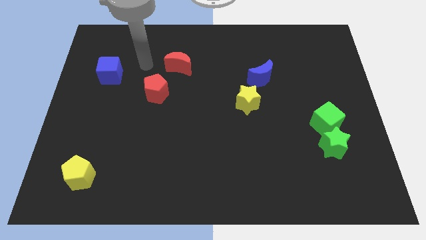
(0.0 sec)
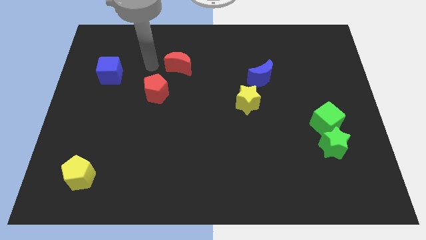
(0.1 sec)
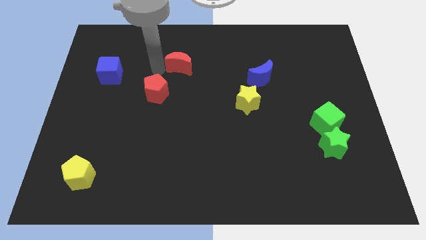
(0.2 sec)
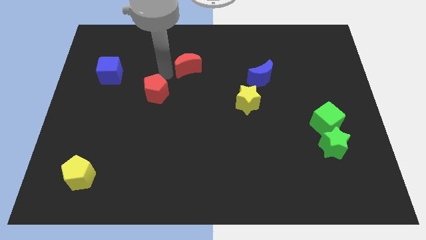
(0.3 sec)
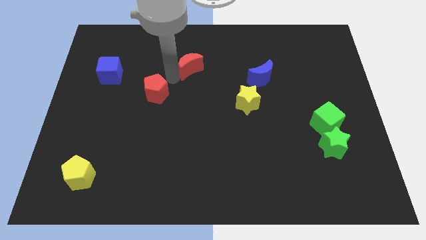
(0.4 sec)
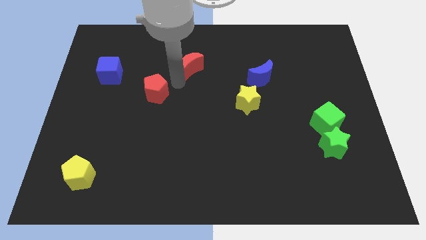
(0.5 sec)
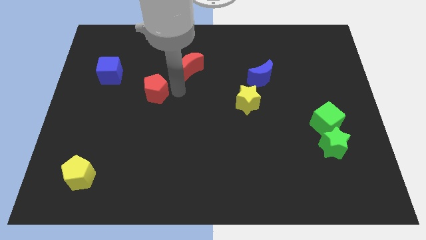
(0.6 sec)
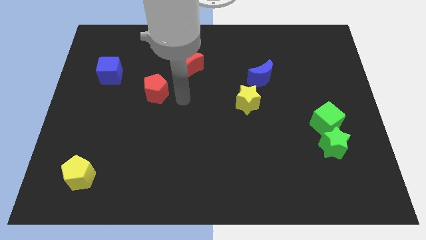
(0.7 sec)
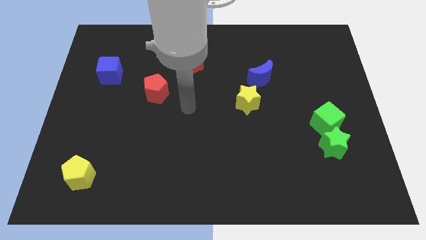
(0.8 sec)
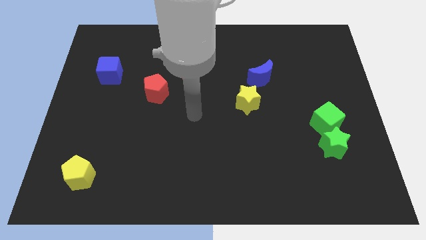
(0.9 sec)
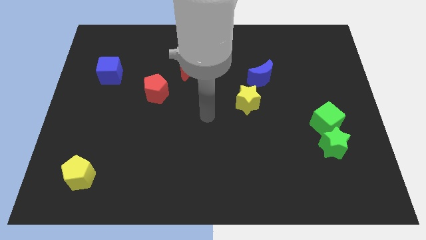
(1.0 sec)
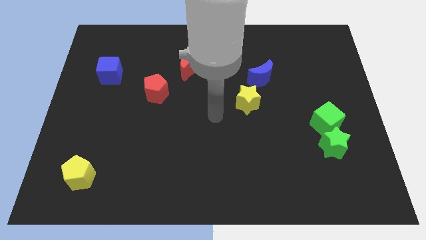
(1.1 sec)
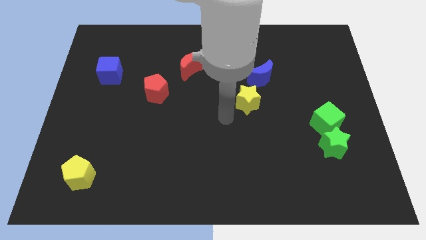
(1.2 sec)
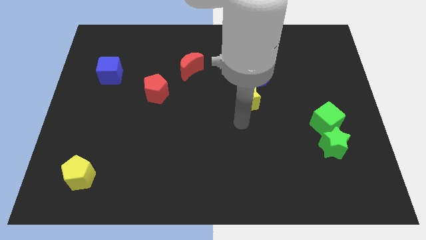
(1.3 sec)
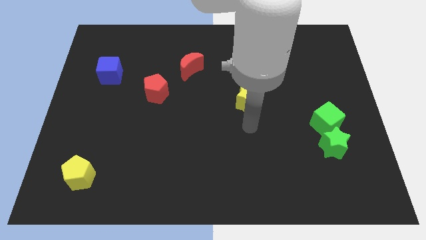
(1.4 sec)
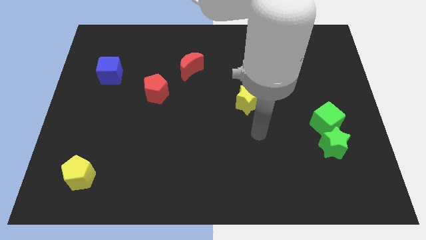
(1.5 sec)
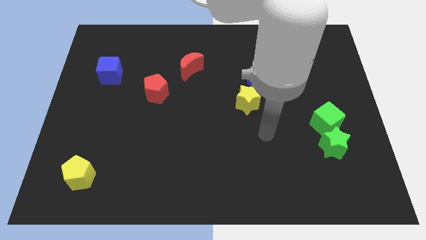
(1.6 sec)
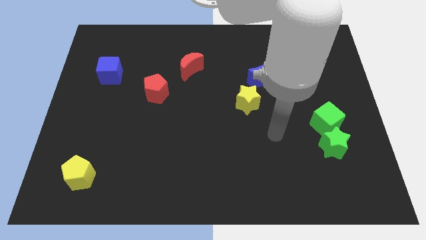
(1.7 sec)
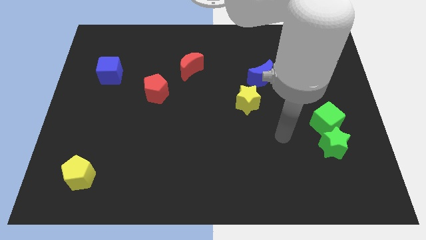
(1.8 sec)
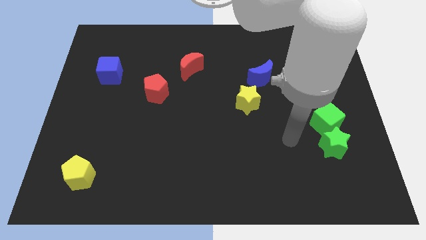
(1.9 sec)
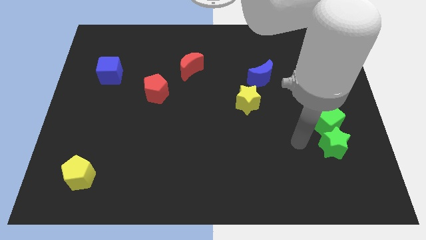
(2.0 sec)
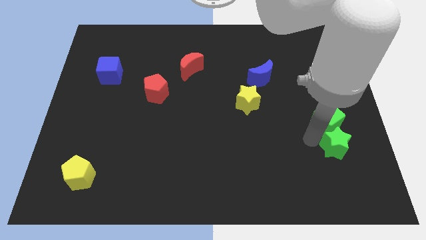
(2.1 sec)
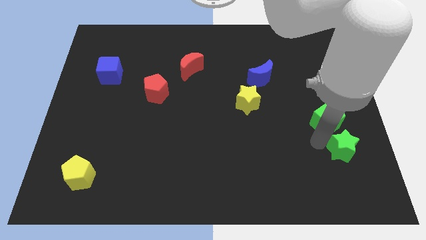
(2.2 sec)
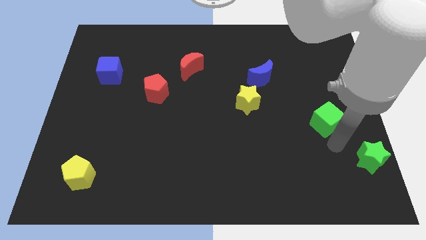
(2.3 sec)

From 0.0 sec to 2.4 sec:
move the green cube away from the green star

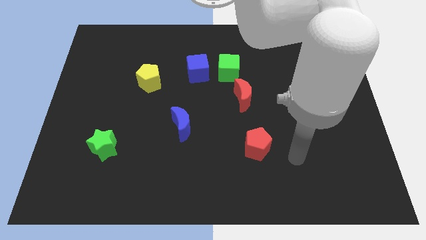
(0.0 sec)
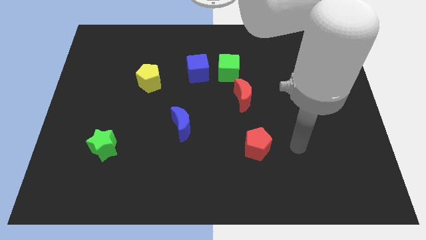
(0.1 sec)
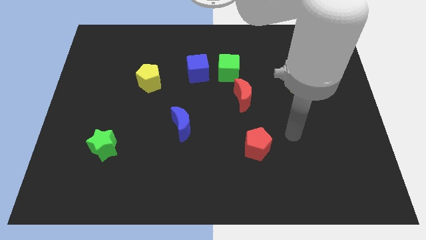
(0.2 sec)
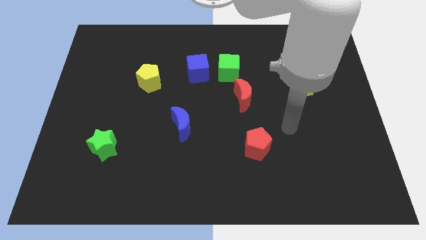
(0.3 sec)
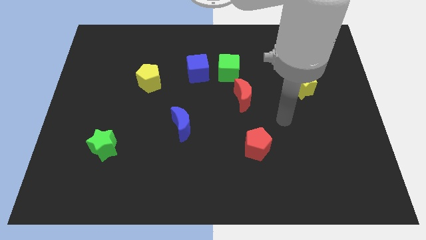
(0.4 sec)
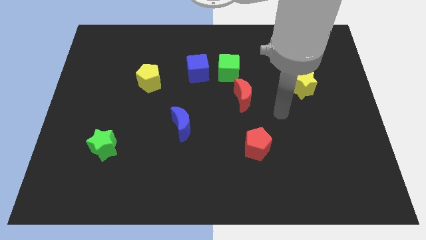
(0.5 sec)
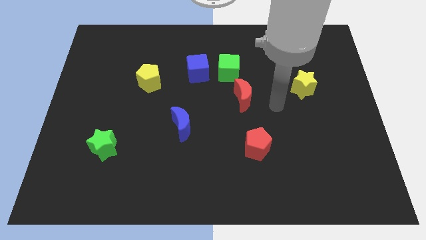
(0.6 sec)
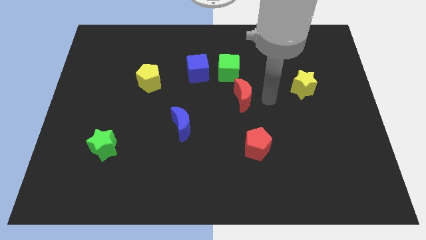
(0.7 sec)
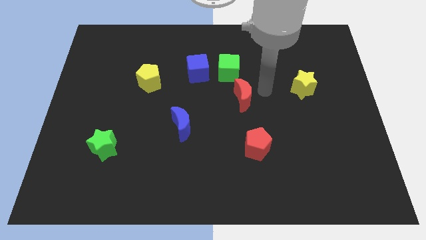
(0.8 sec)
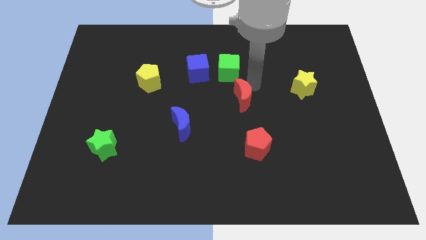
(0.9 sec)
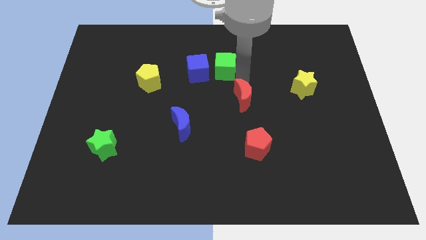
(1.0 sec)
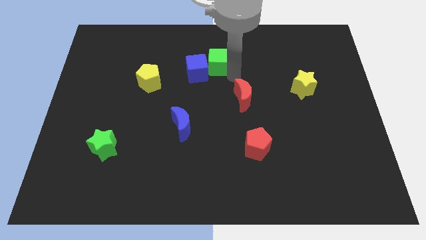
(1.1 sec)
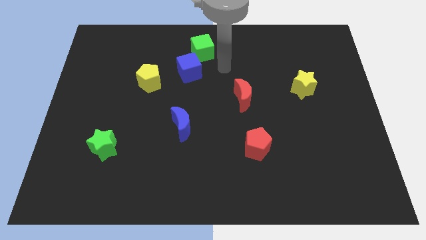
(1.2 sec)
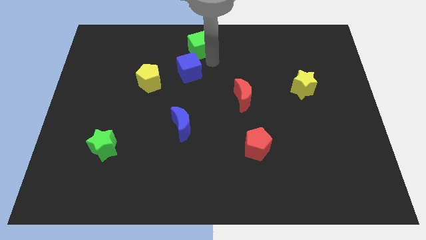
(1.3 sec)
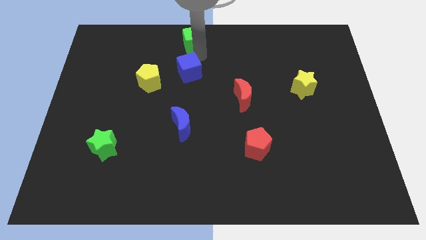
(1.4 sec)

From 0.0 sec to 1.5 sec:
pull the blue cube apart from the green cube

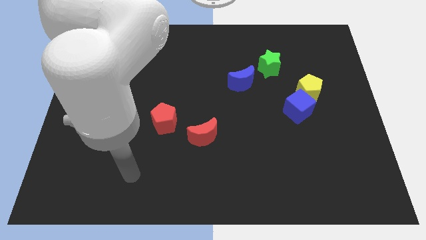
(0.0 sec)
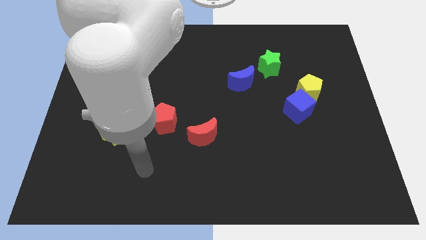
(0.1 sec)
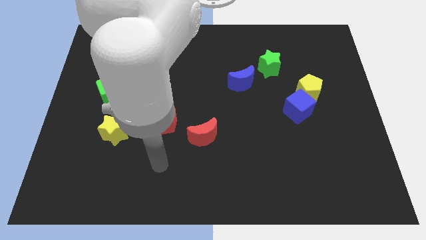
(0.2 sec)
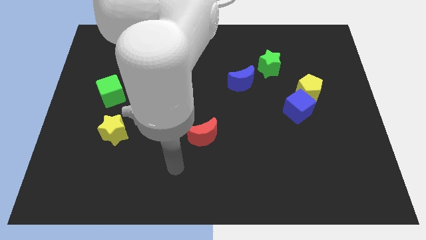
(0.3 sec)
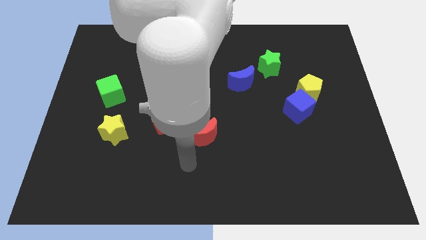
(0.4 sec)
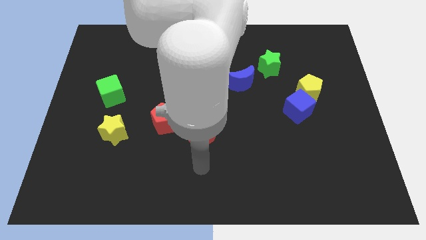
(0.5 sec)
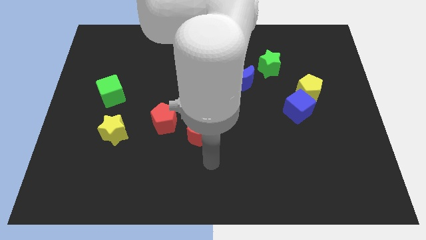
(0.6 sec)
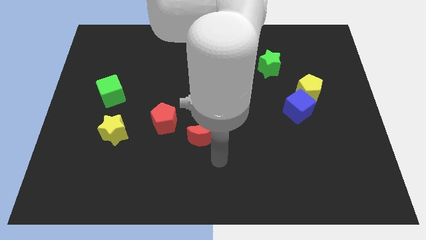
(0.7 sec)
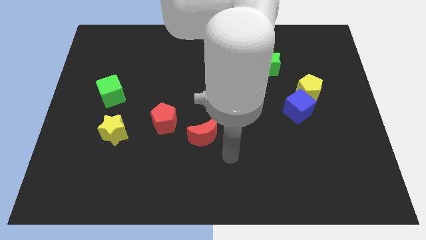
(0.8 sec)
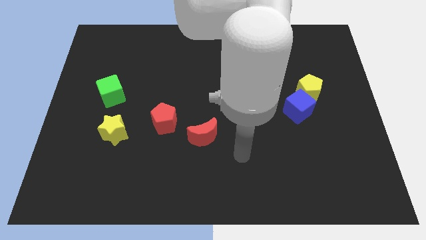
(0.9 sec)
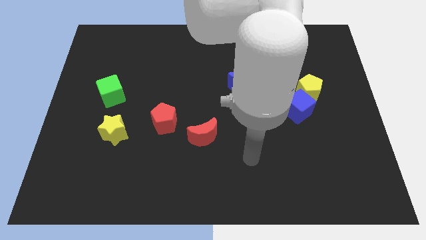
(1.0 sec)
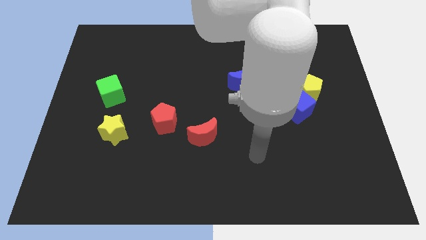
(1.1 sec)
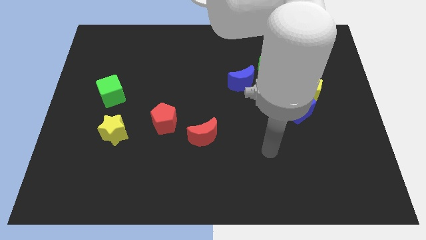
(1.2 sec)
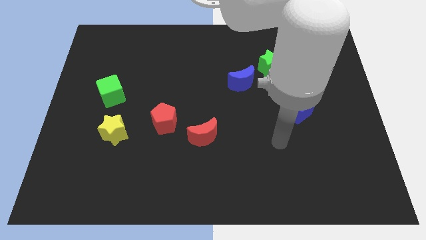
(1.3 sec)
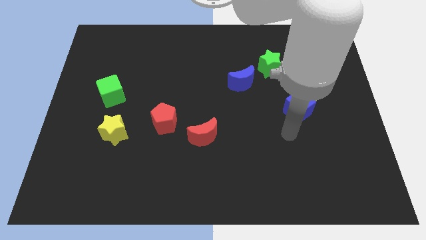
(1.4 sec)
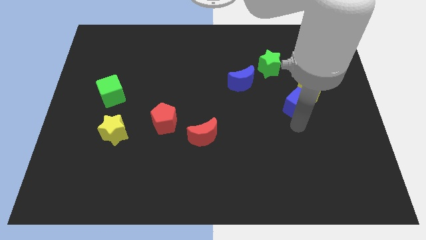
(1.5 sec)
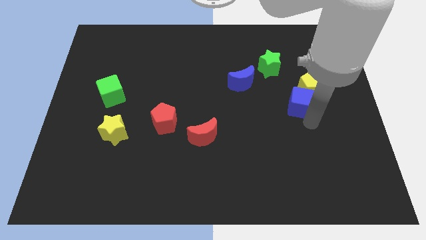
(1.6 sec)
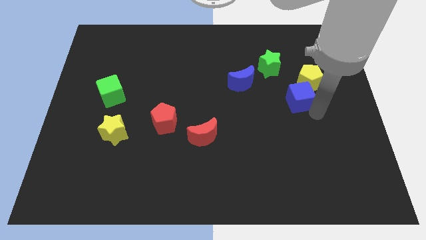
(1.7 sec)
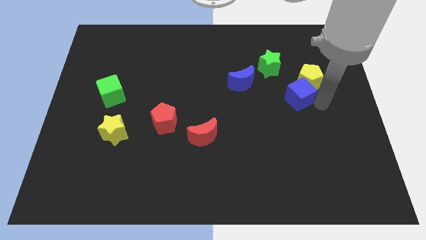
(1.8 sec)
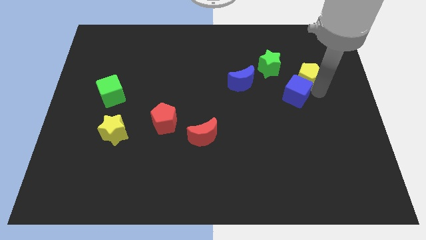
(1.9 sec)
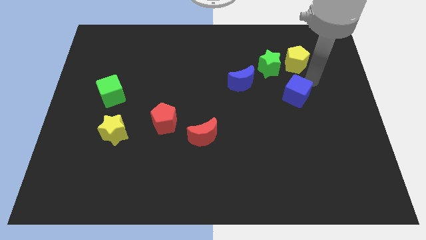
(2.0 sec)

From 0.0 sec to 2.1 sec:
pull the blue cube apart from the yellow pentagon

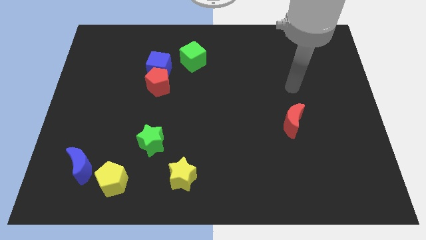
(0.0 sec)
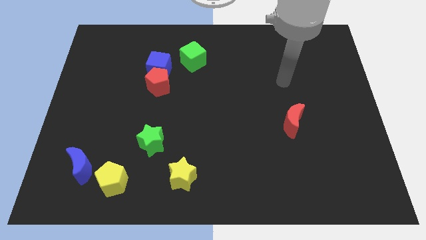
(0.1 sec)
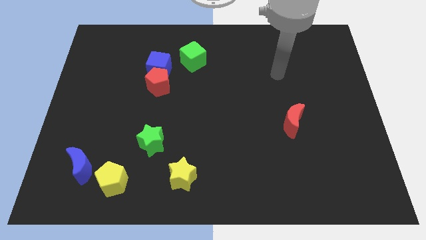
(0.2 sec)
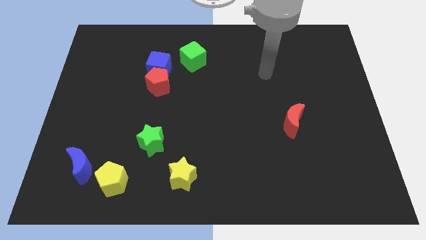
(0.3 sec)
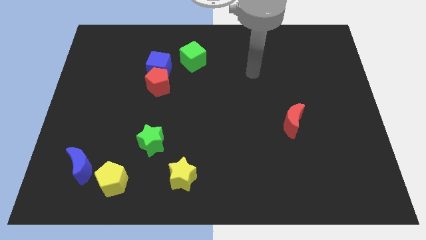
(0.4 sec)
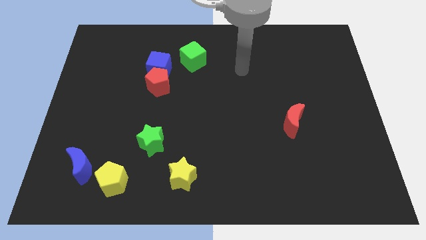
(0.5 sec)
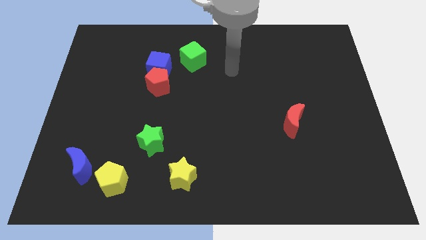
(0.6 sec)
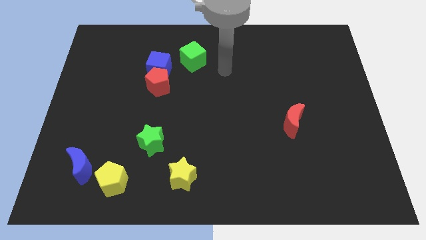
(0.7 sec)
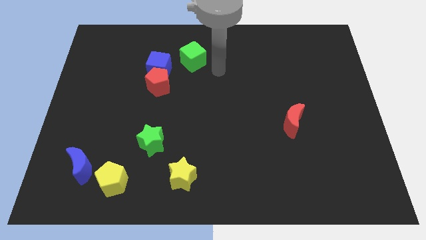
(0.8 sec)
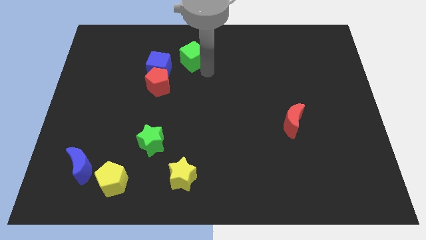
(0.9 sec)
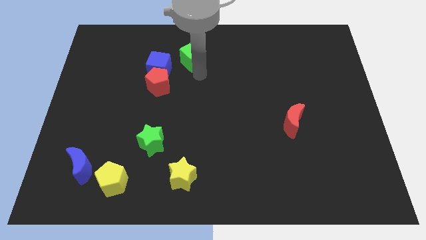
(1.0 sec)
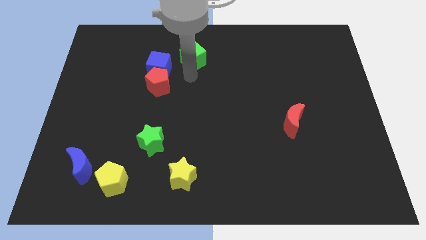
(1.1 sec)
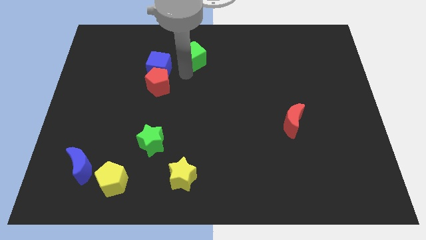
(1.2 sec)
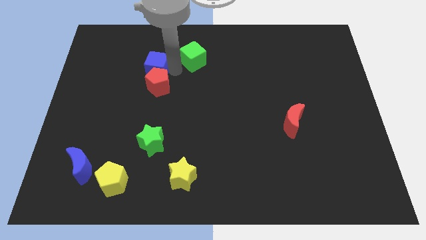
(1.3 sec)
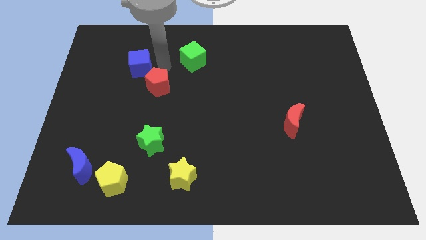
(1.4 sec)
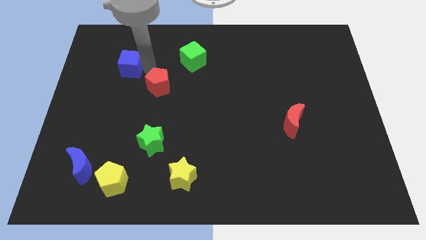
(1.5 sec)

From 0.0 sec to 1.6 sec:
separate the red pentagon from the blue cube

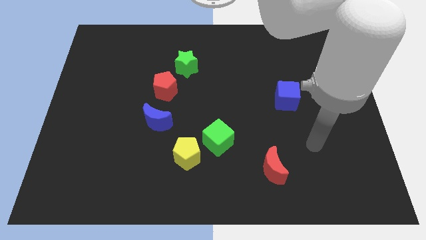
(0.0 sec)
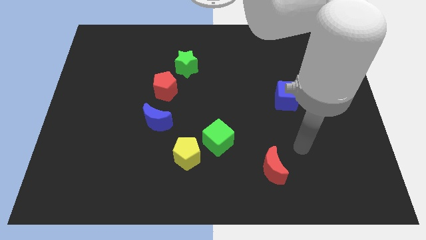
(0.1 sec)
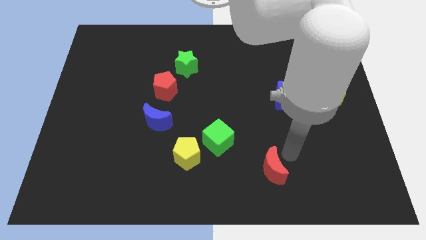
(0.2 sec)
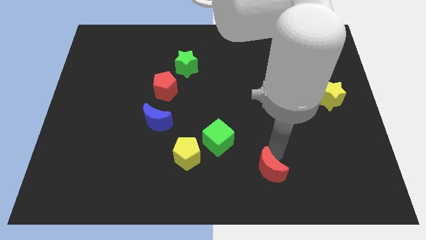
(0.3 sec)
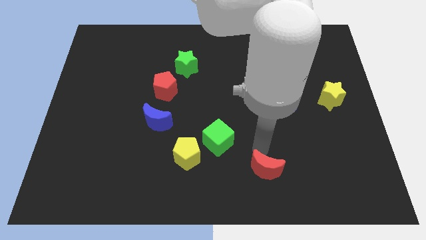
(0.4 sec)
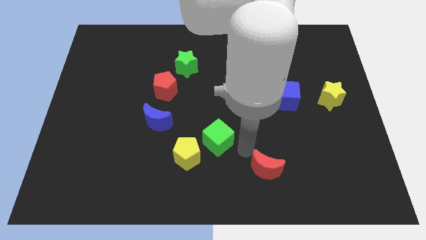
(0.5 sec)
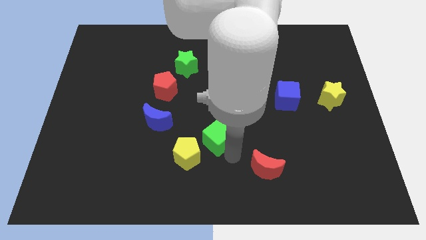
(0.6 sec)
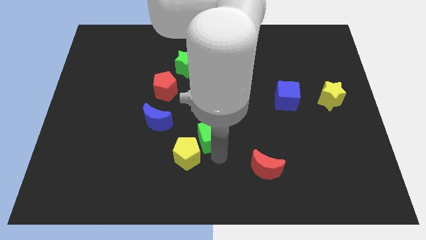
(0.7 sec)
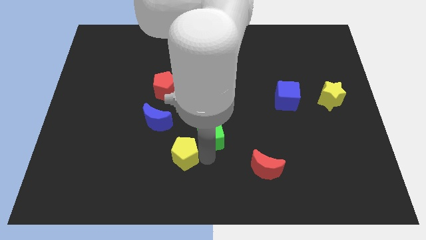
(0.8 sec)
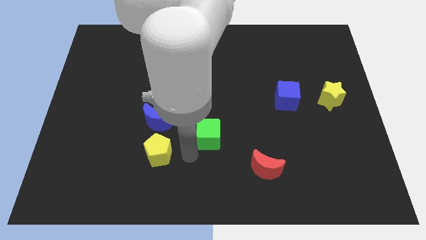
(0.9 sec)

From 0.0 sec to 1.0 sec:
move the green cube away from the yellow pentagon

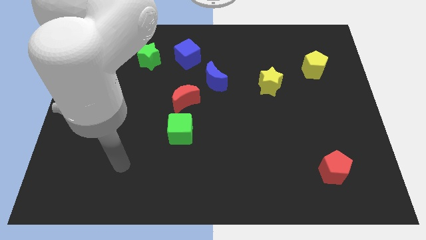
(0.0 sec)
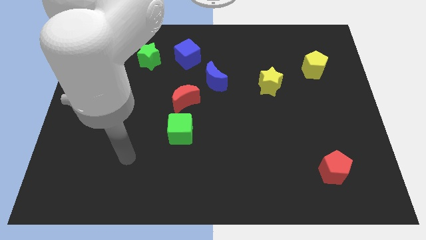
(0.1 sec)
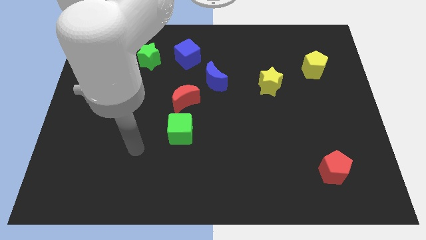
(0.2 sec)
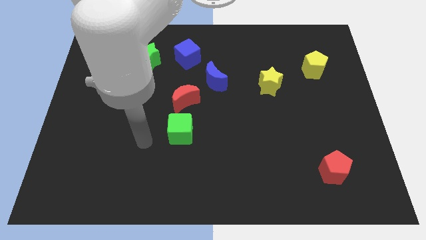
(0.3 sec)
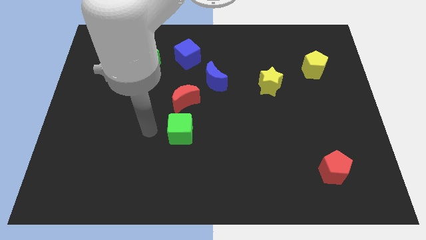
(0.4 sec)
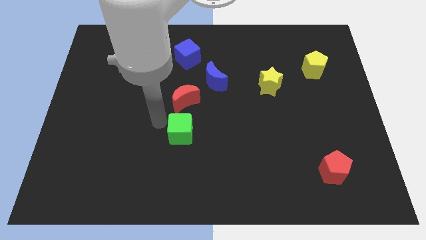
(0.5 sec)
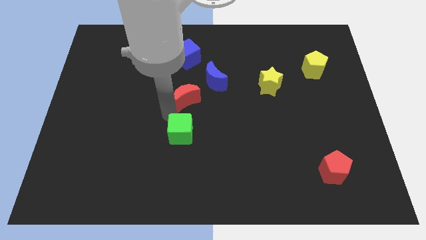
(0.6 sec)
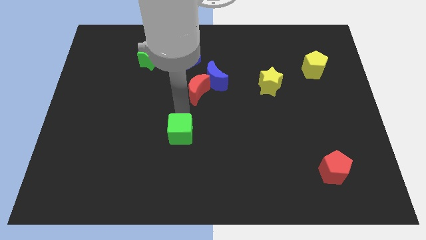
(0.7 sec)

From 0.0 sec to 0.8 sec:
pull the green cube apart from the red moon
